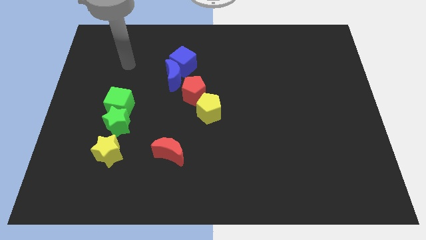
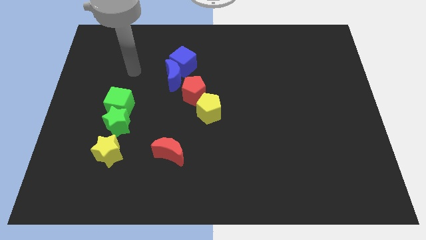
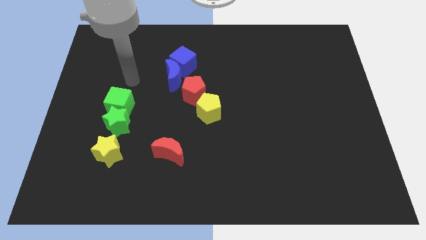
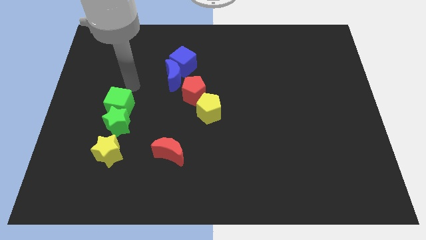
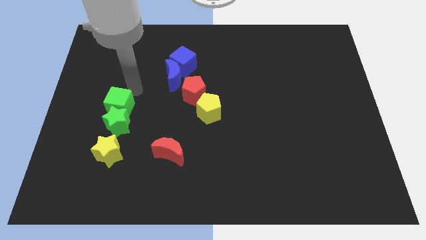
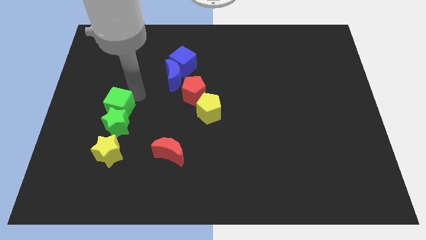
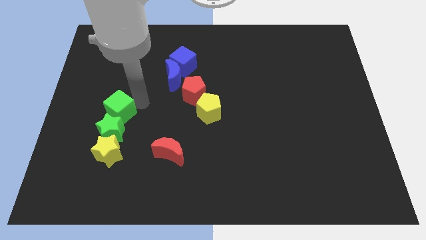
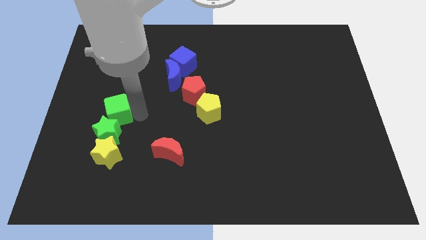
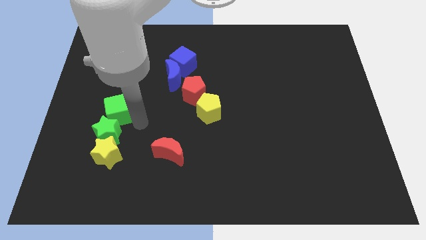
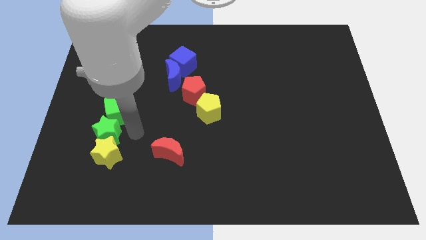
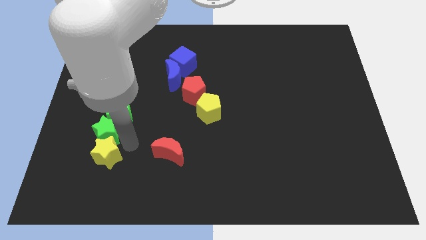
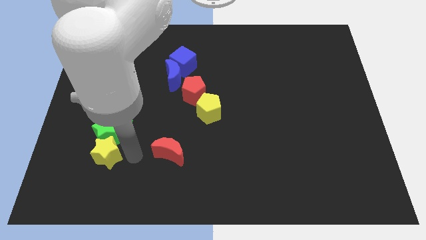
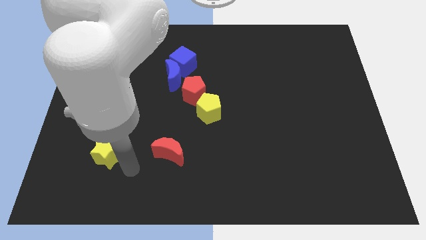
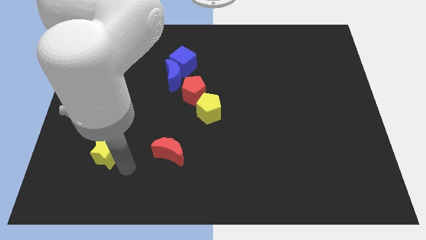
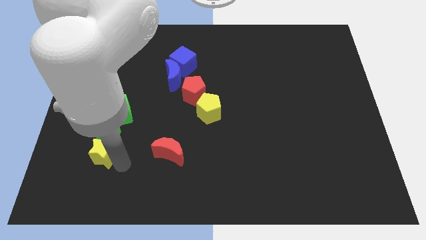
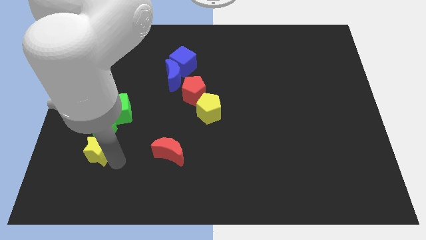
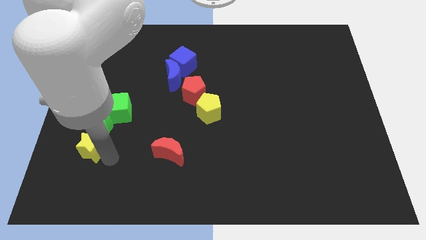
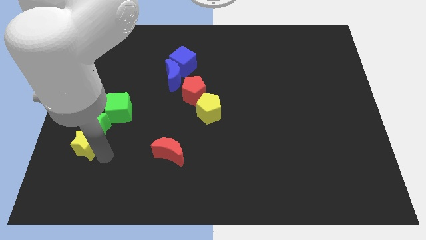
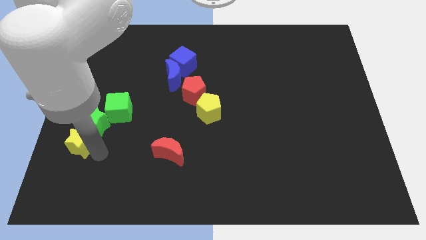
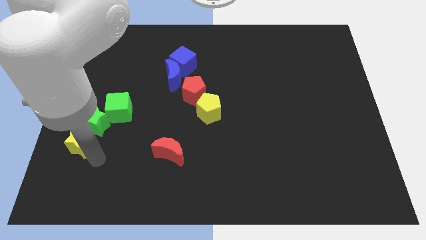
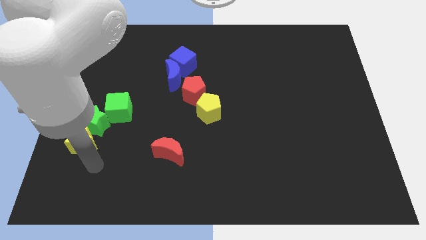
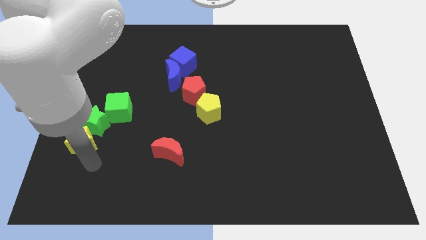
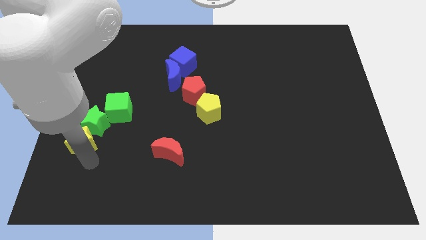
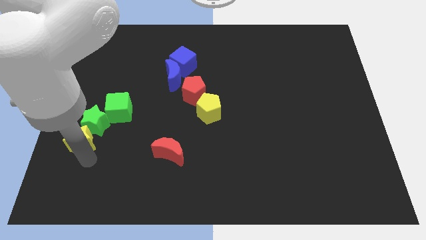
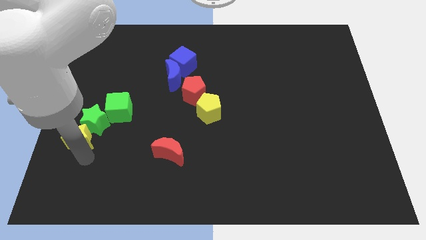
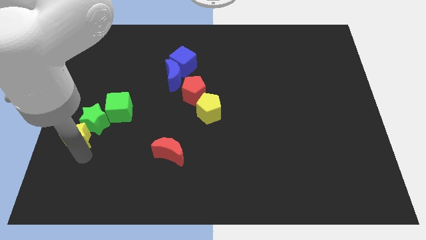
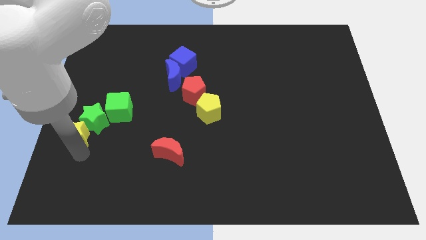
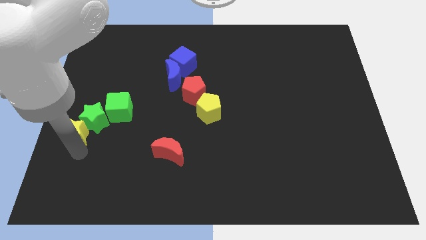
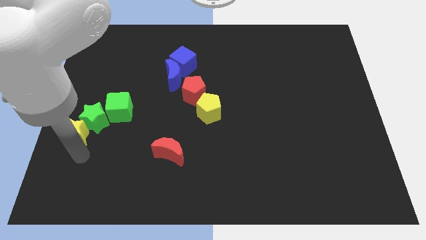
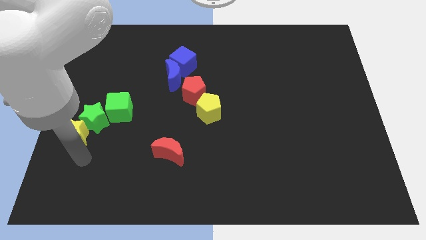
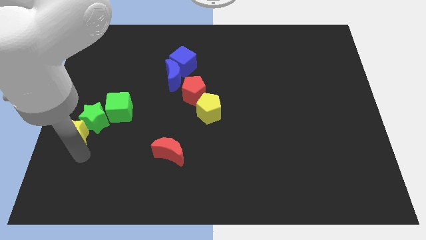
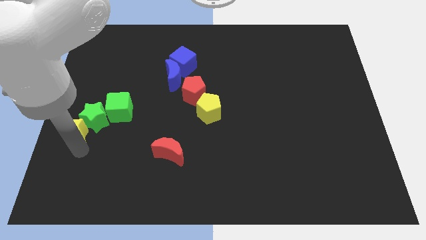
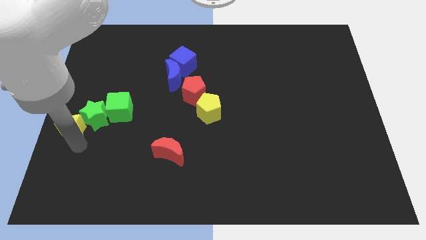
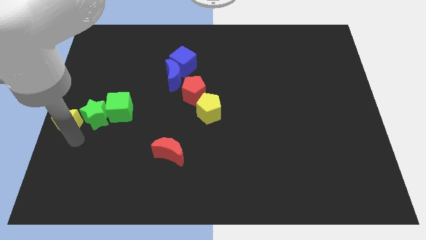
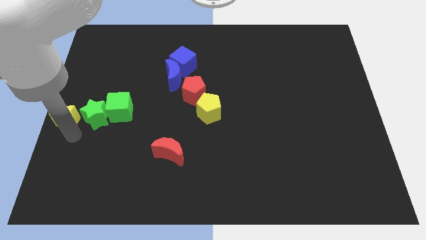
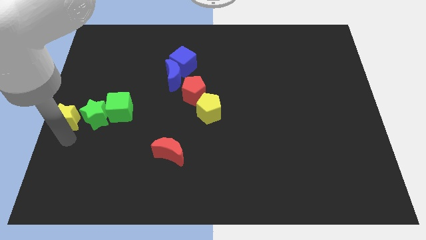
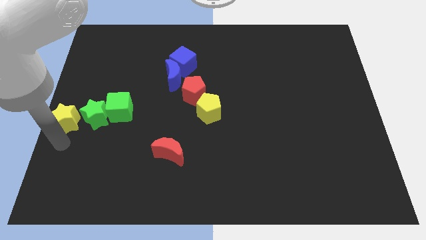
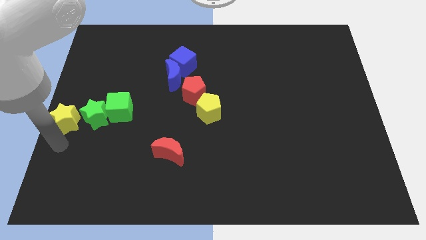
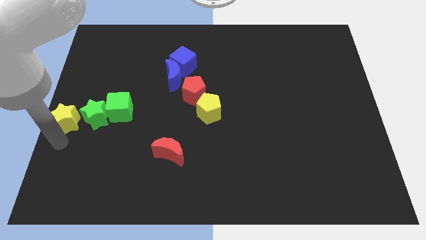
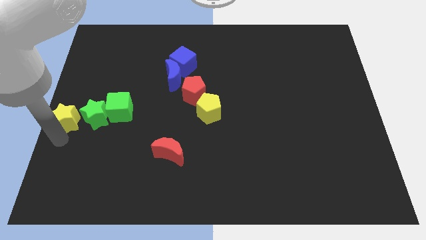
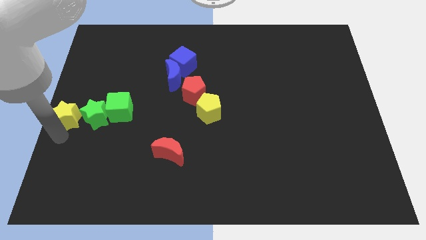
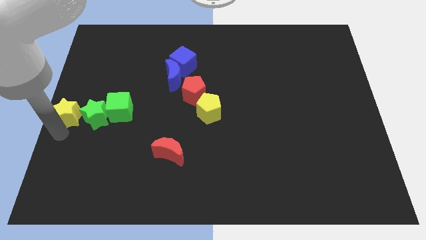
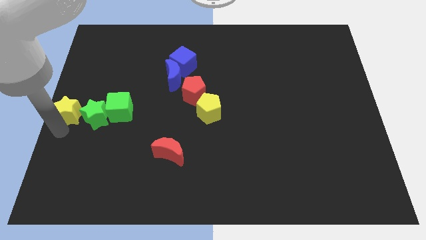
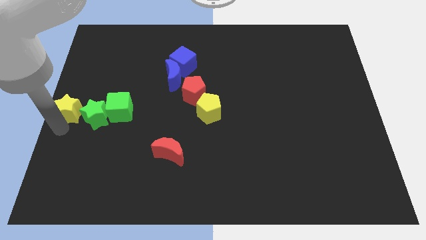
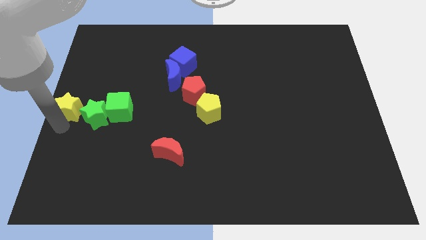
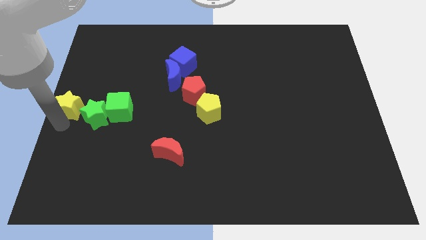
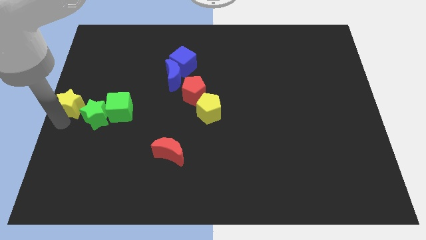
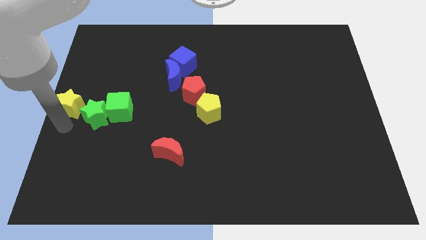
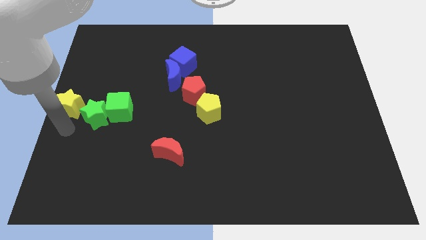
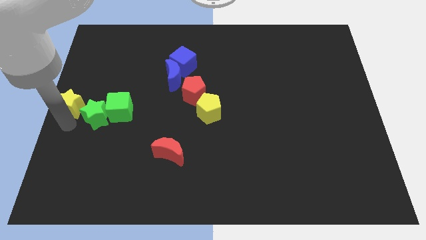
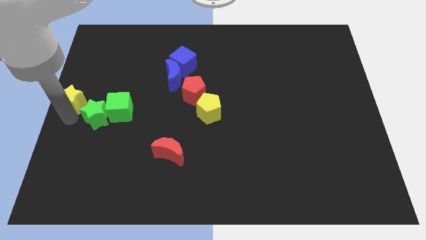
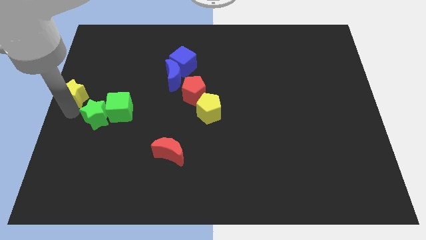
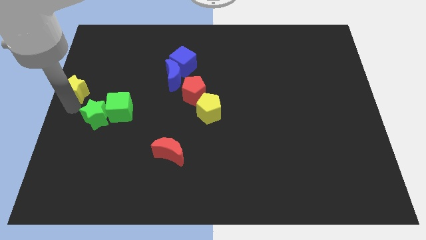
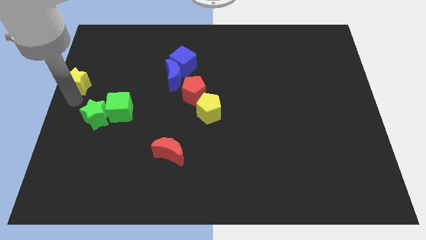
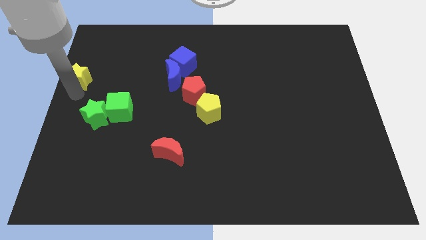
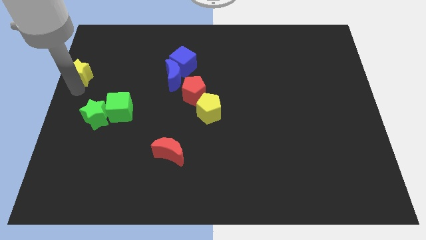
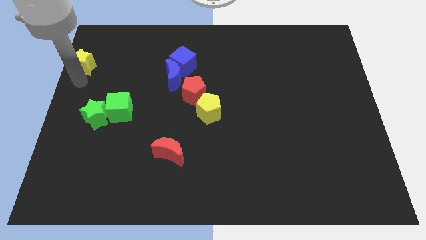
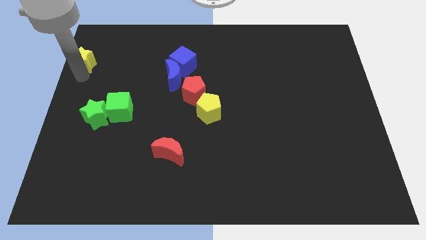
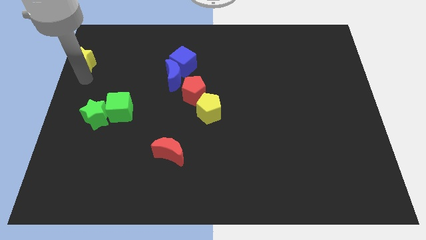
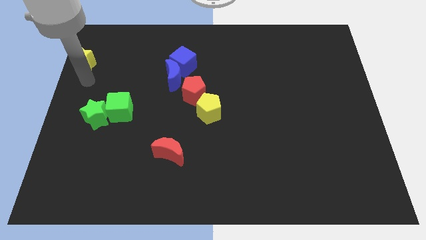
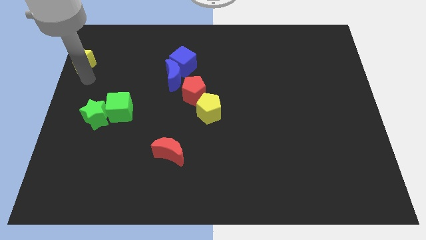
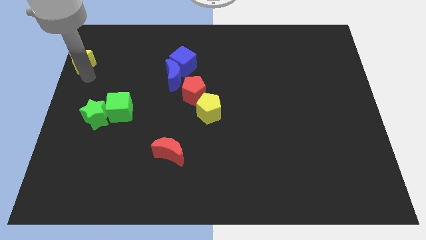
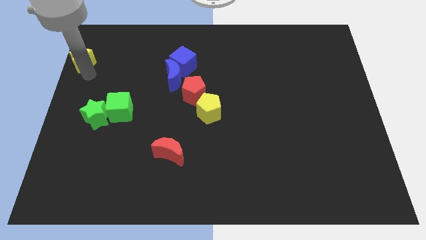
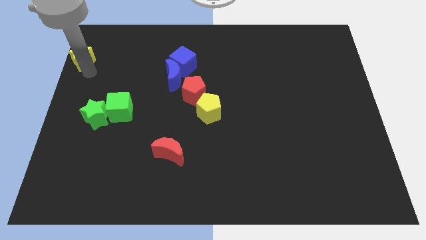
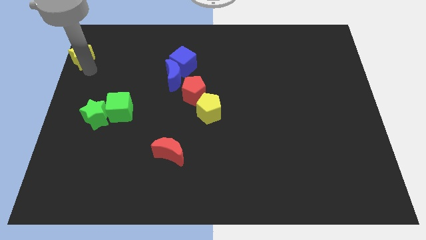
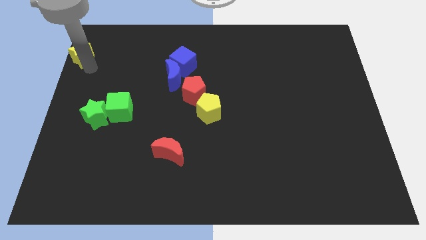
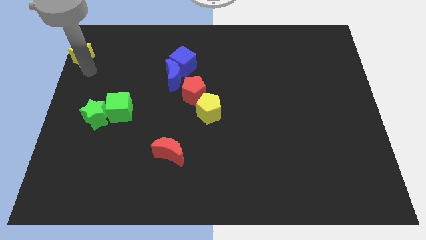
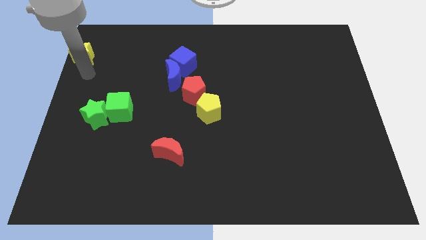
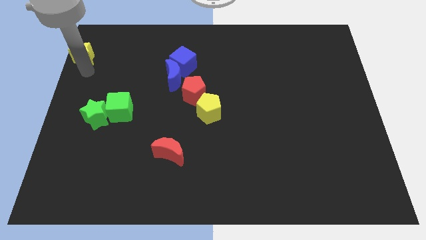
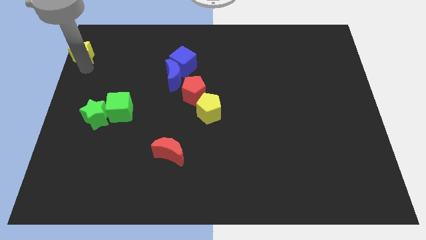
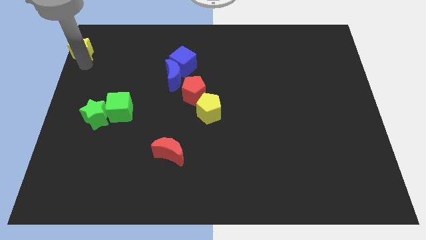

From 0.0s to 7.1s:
move the yellow star to the upper left corner
